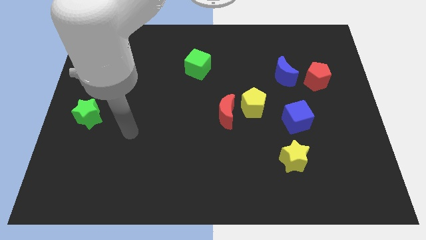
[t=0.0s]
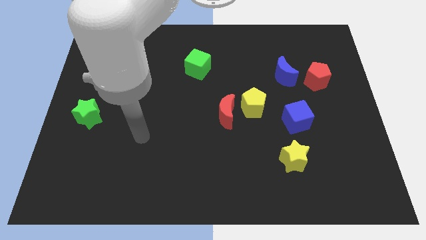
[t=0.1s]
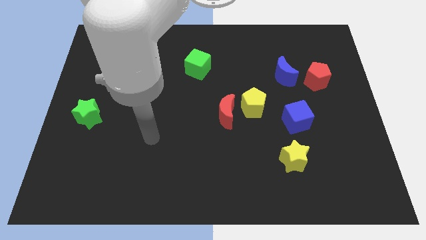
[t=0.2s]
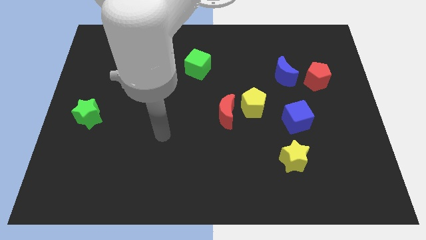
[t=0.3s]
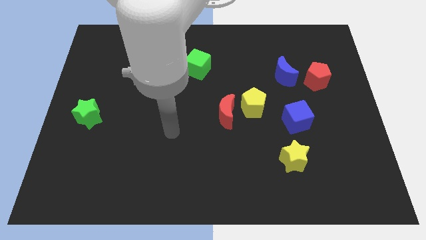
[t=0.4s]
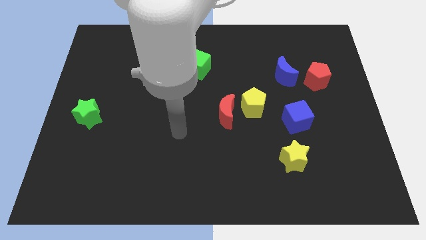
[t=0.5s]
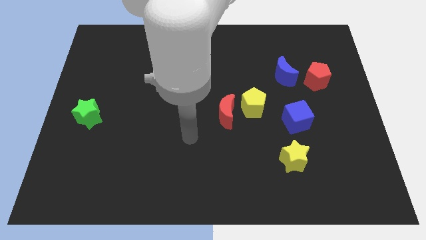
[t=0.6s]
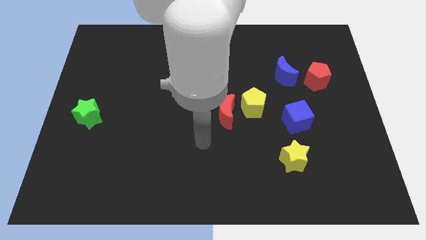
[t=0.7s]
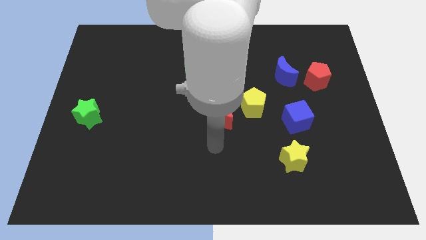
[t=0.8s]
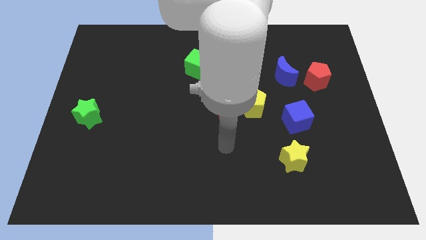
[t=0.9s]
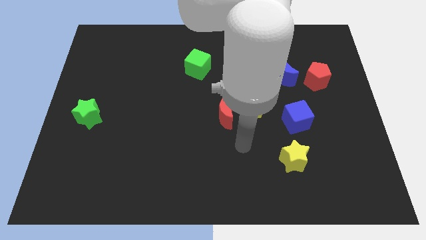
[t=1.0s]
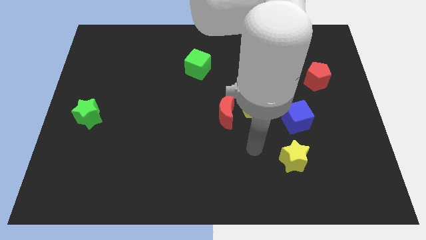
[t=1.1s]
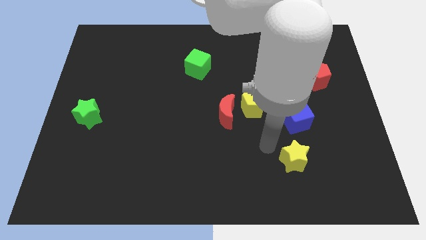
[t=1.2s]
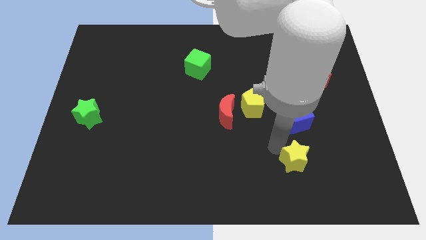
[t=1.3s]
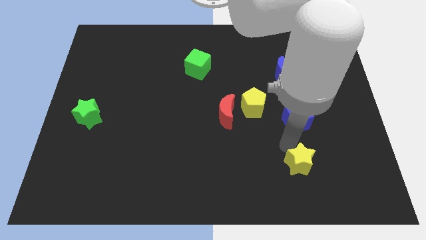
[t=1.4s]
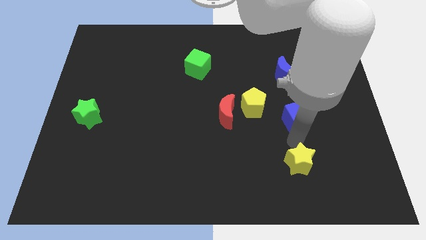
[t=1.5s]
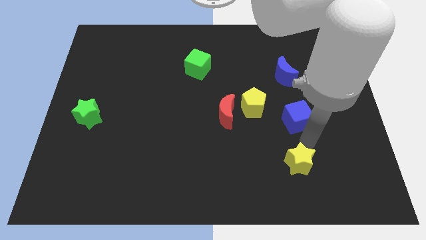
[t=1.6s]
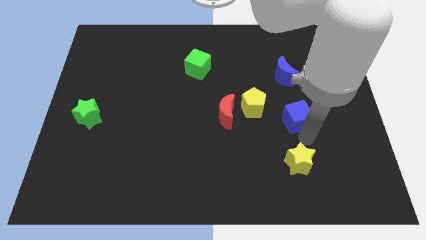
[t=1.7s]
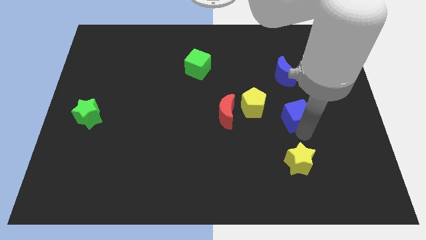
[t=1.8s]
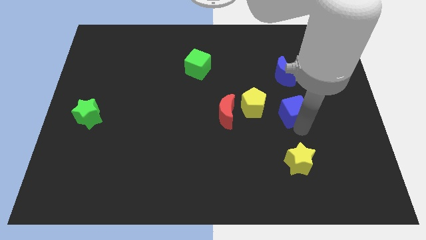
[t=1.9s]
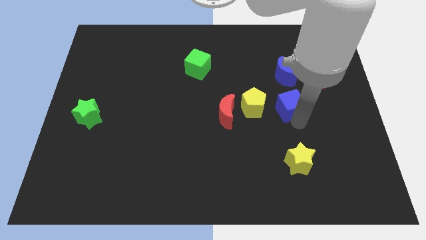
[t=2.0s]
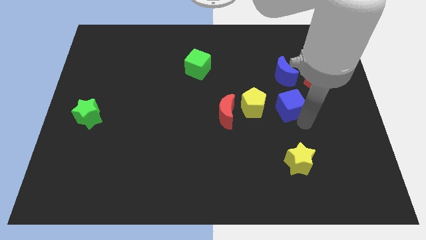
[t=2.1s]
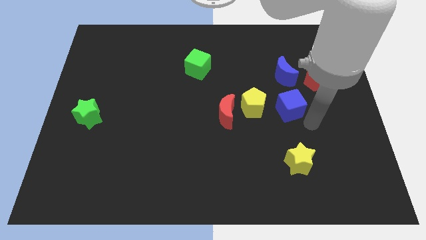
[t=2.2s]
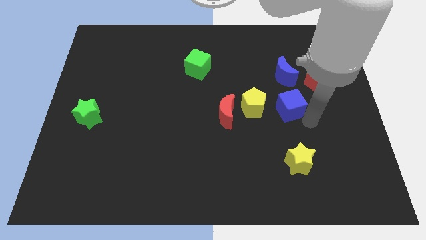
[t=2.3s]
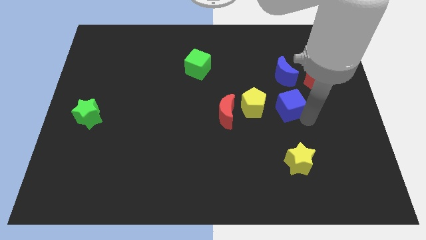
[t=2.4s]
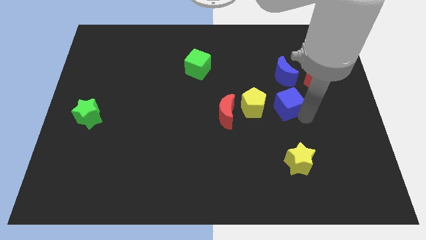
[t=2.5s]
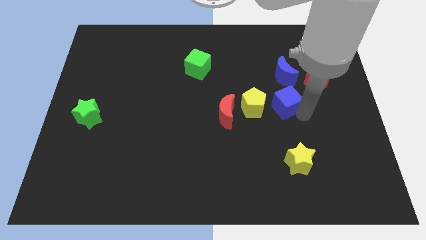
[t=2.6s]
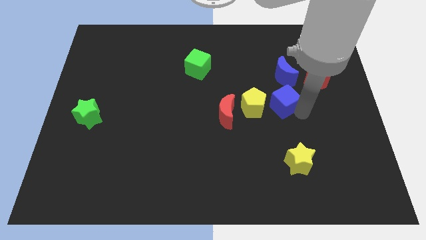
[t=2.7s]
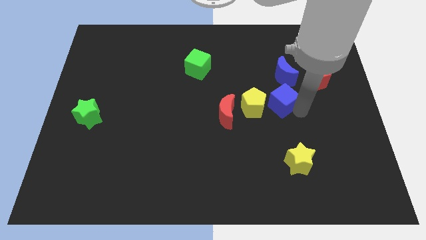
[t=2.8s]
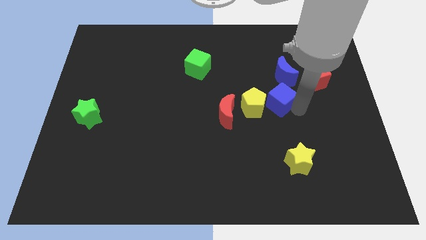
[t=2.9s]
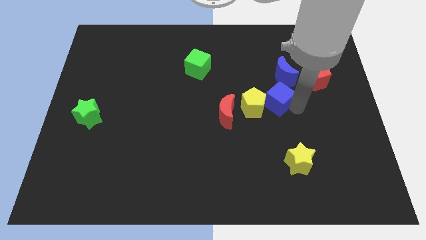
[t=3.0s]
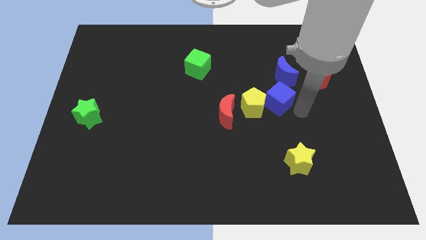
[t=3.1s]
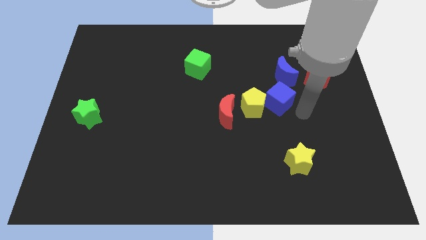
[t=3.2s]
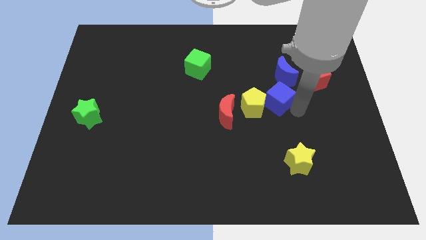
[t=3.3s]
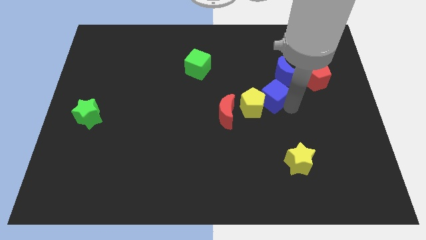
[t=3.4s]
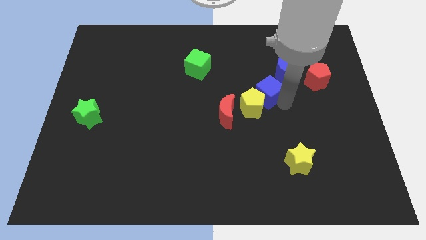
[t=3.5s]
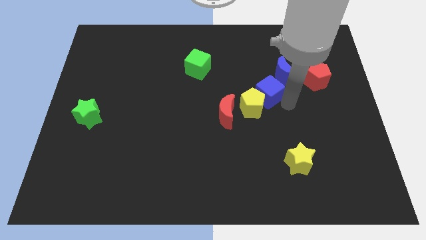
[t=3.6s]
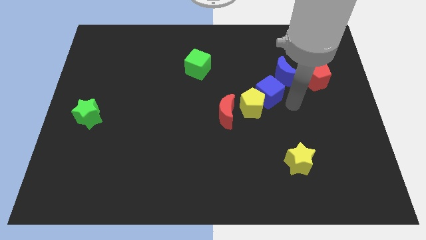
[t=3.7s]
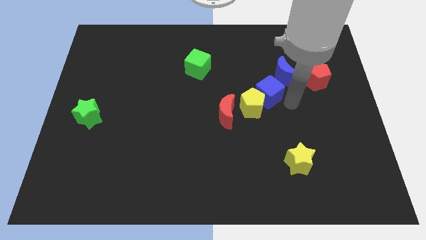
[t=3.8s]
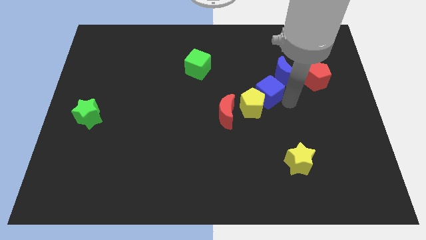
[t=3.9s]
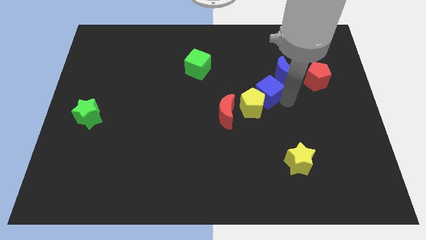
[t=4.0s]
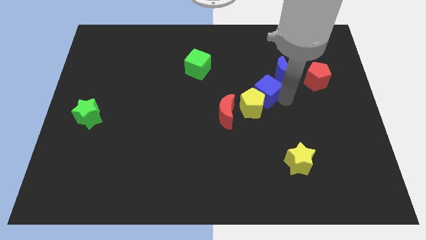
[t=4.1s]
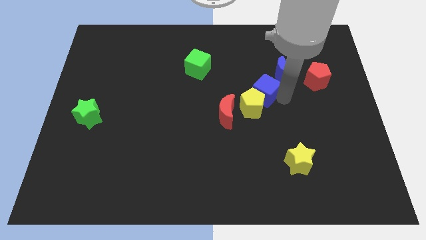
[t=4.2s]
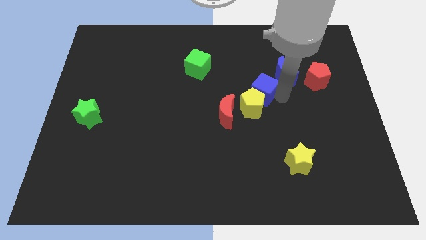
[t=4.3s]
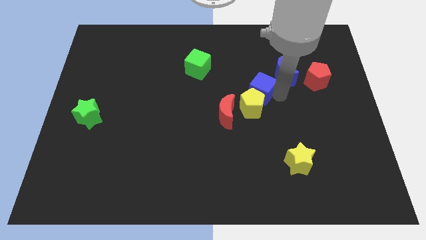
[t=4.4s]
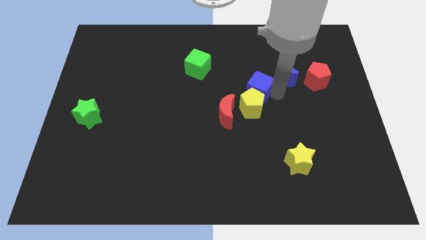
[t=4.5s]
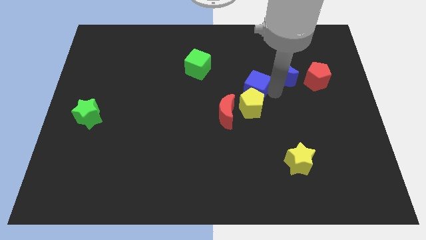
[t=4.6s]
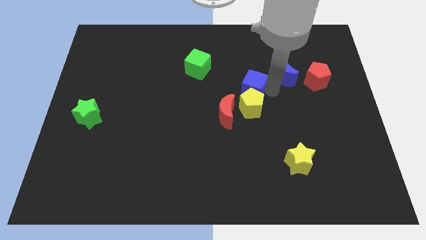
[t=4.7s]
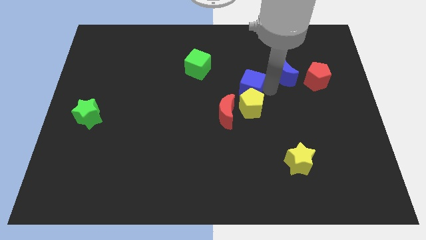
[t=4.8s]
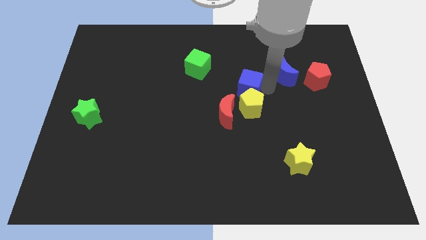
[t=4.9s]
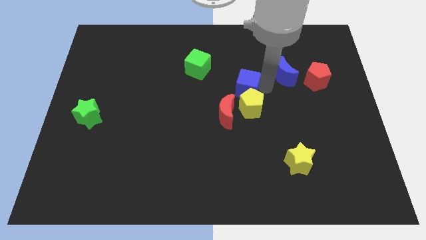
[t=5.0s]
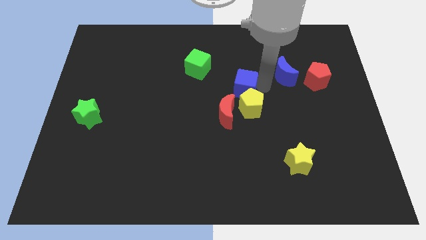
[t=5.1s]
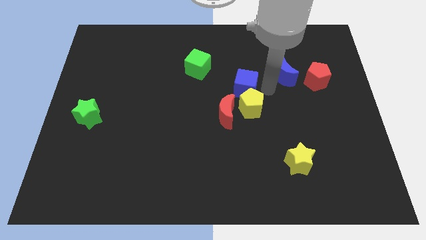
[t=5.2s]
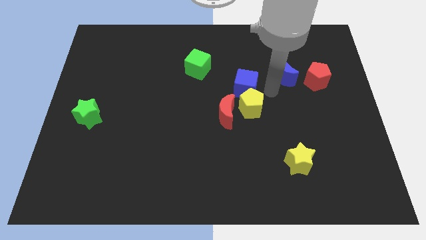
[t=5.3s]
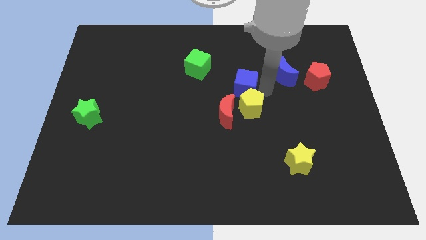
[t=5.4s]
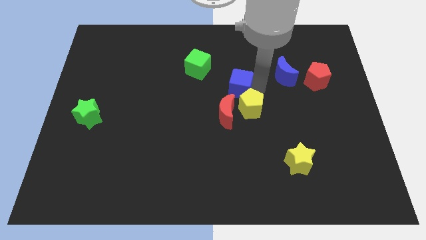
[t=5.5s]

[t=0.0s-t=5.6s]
push the blue cube to the bottom right side of the green cube

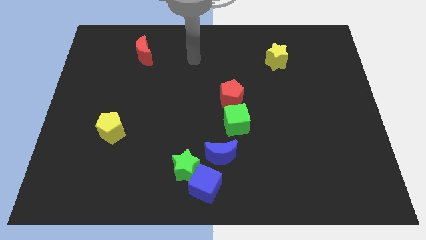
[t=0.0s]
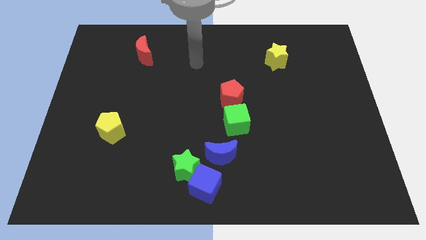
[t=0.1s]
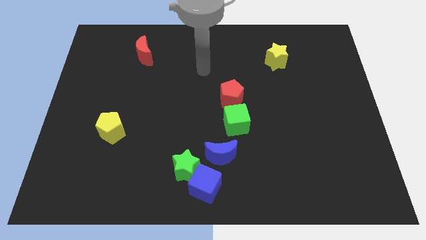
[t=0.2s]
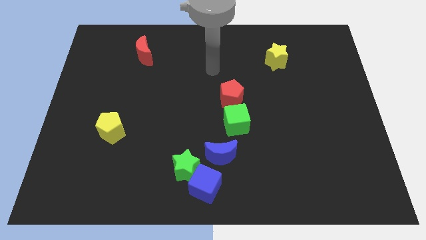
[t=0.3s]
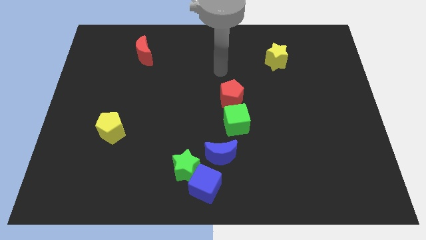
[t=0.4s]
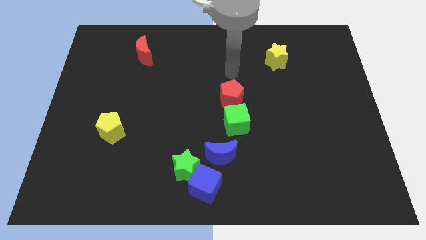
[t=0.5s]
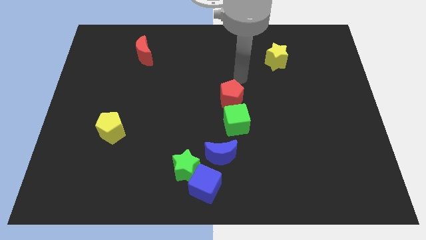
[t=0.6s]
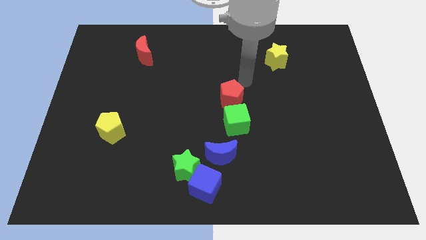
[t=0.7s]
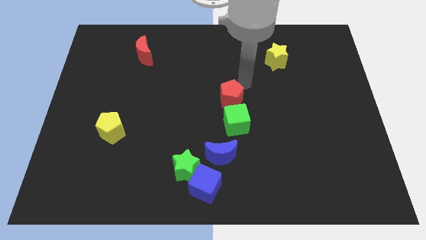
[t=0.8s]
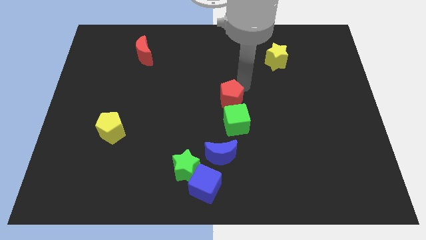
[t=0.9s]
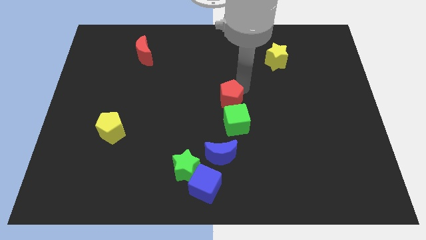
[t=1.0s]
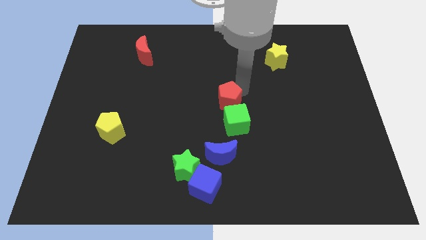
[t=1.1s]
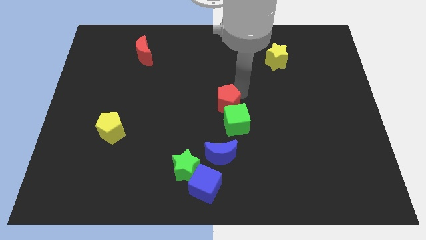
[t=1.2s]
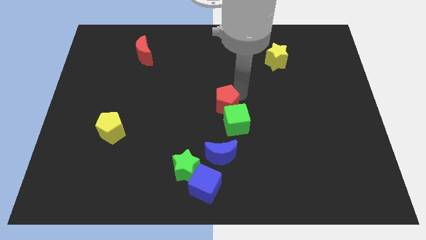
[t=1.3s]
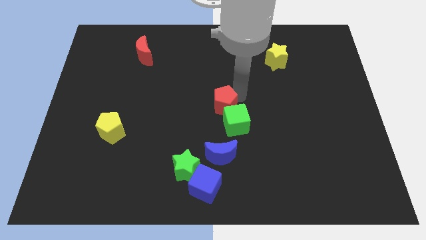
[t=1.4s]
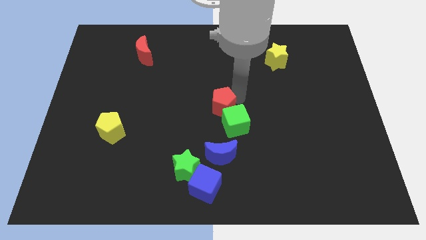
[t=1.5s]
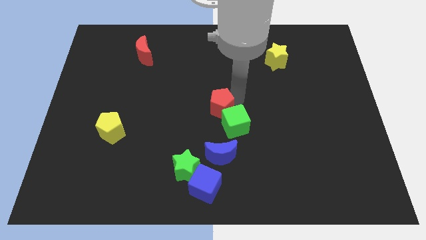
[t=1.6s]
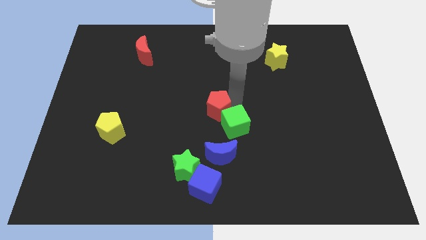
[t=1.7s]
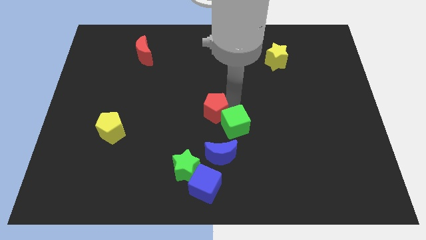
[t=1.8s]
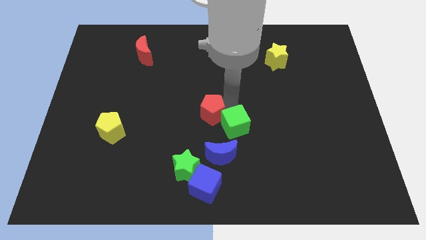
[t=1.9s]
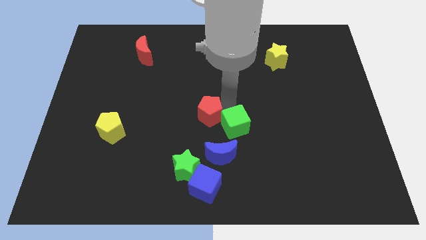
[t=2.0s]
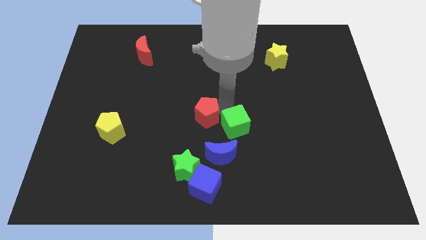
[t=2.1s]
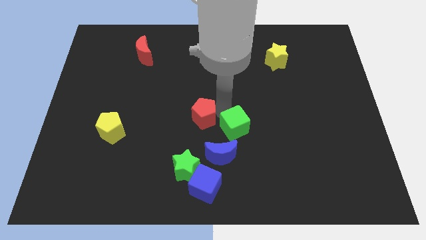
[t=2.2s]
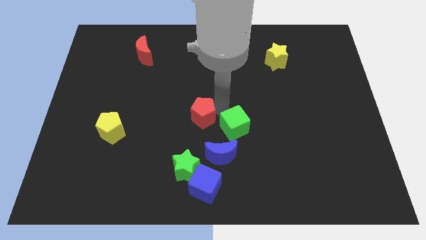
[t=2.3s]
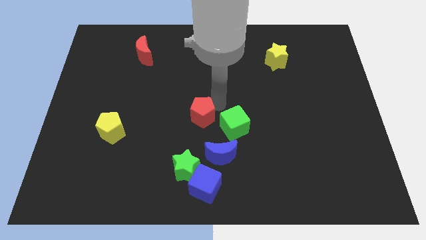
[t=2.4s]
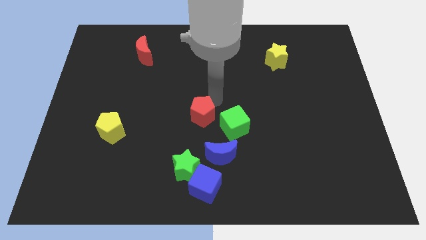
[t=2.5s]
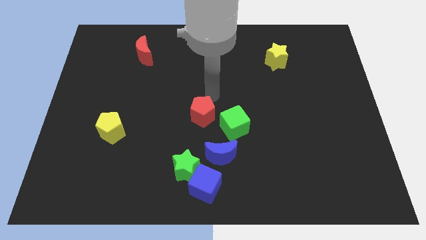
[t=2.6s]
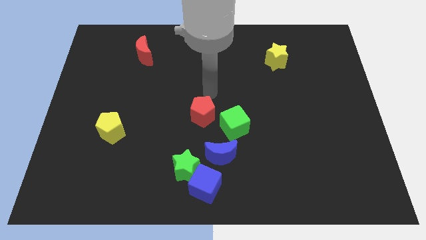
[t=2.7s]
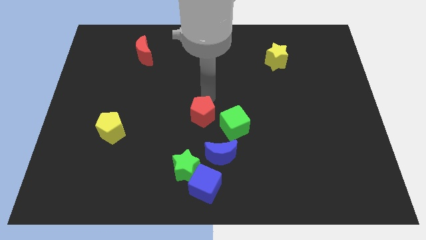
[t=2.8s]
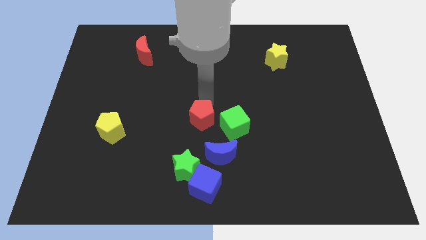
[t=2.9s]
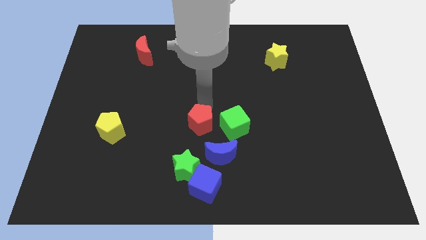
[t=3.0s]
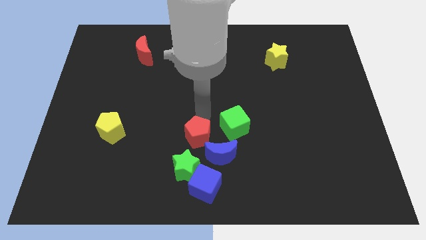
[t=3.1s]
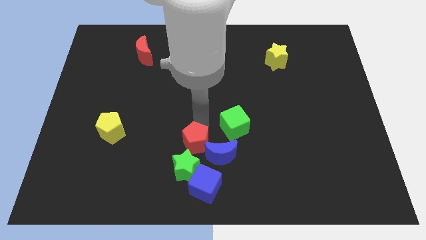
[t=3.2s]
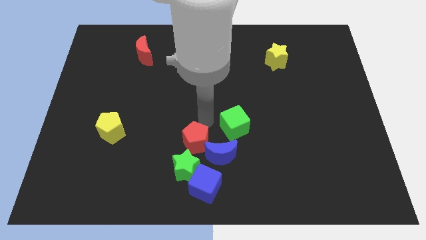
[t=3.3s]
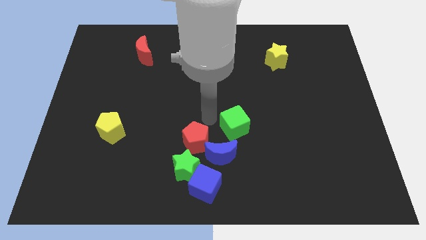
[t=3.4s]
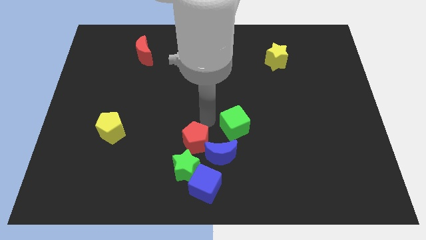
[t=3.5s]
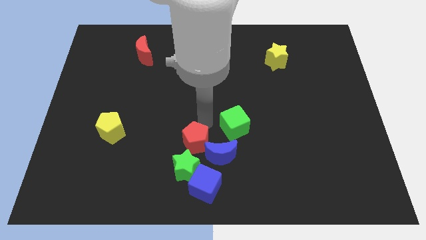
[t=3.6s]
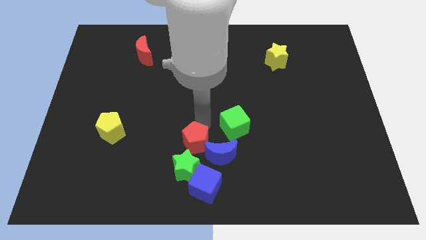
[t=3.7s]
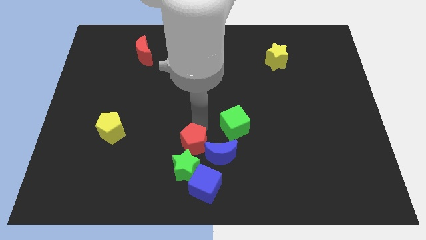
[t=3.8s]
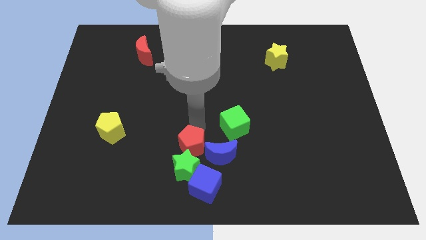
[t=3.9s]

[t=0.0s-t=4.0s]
slide the red pentagon diagonally up and to the left of the blue cube
